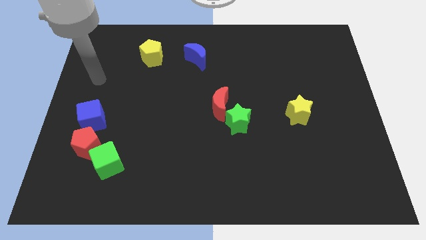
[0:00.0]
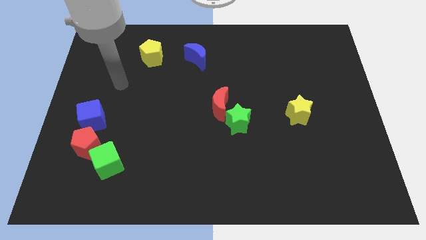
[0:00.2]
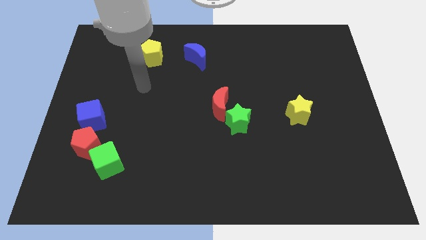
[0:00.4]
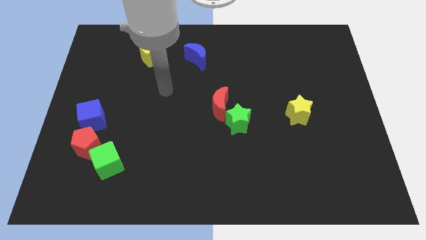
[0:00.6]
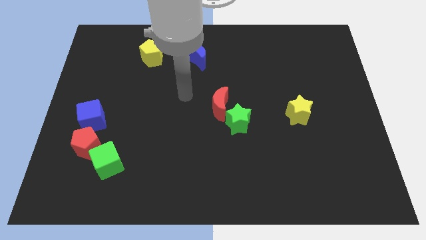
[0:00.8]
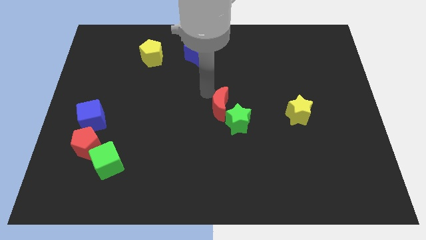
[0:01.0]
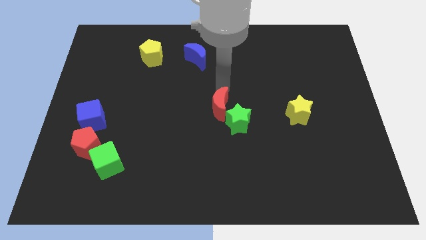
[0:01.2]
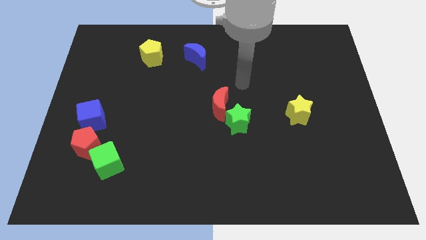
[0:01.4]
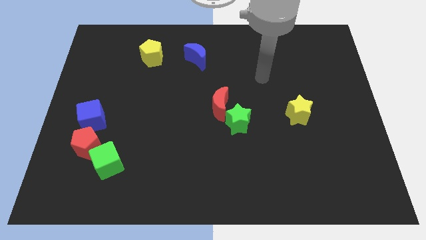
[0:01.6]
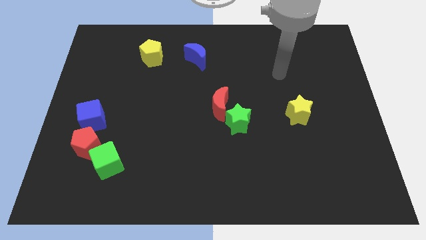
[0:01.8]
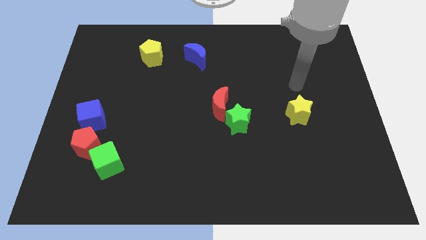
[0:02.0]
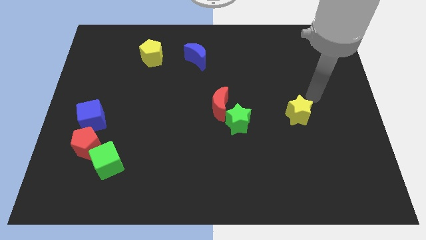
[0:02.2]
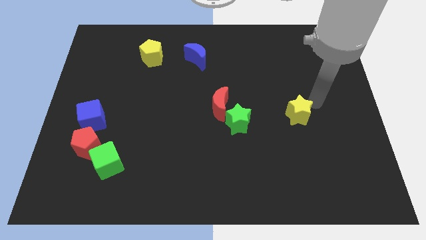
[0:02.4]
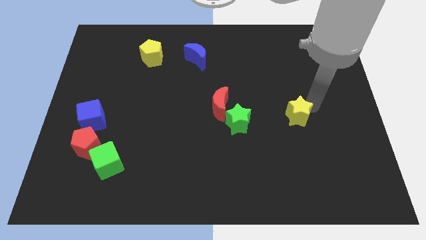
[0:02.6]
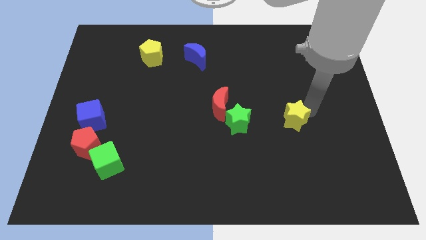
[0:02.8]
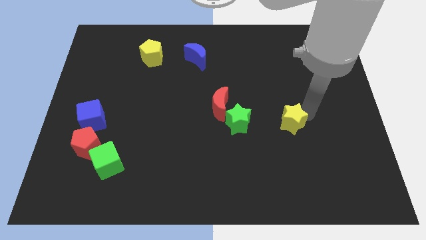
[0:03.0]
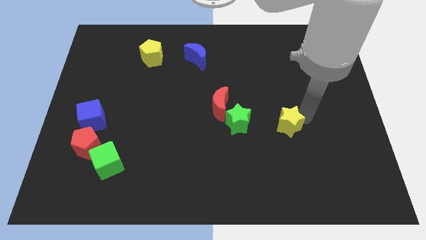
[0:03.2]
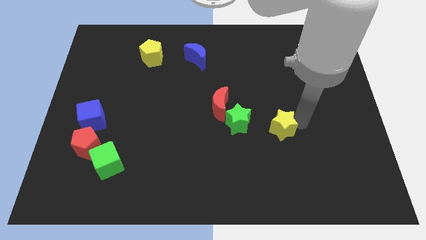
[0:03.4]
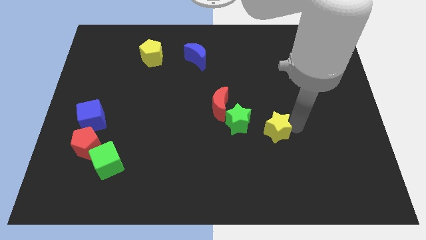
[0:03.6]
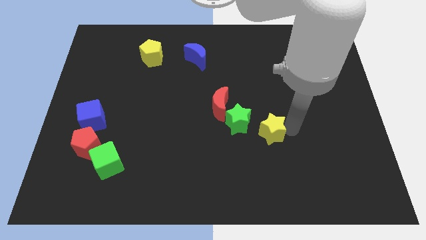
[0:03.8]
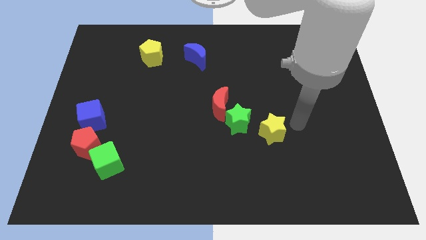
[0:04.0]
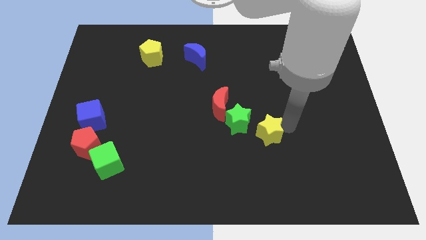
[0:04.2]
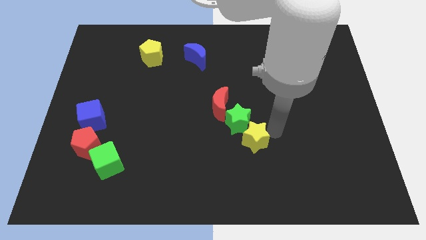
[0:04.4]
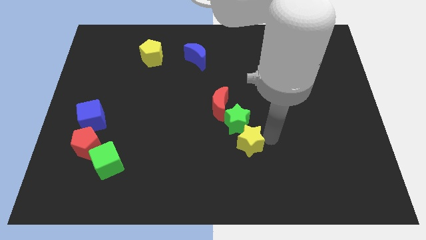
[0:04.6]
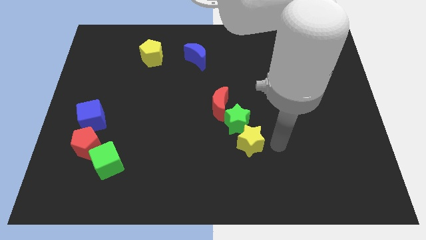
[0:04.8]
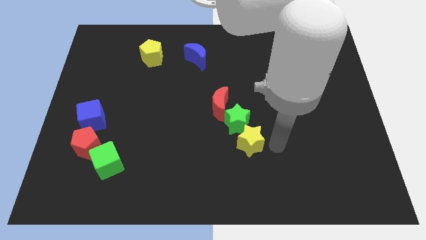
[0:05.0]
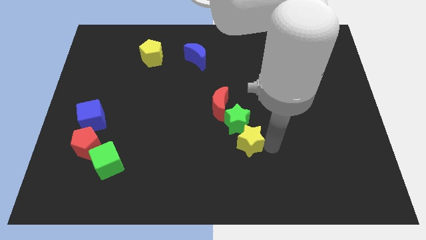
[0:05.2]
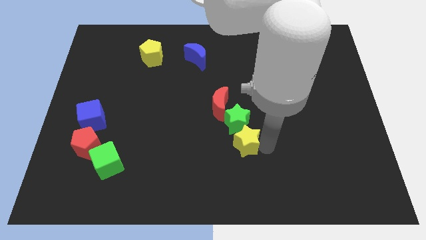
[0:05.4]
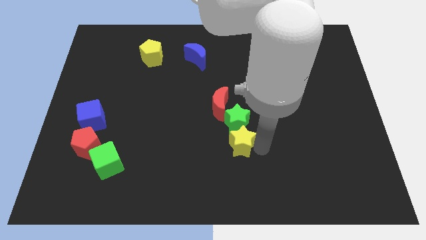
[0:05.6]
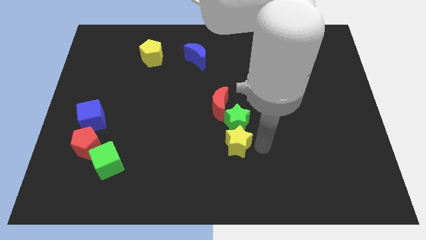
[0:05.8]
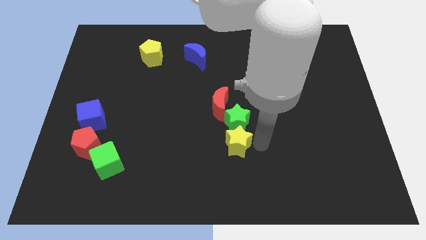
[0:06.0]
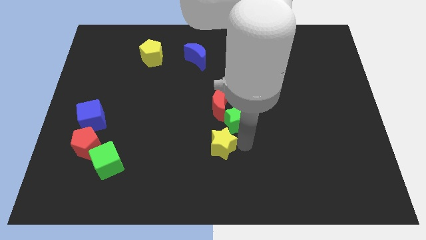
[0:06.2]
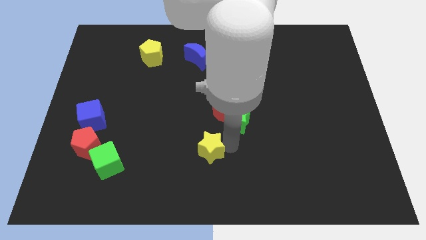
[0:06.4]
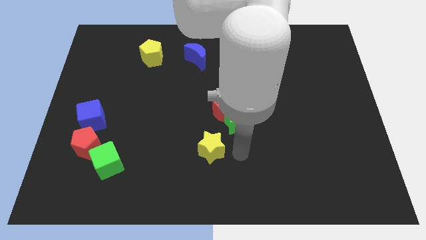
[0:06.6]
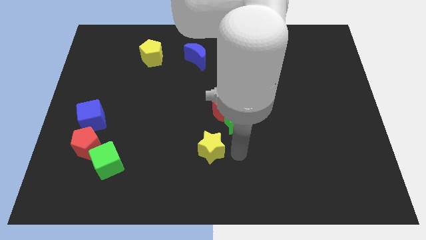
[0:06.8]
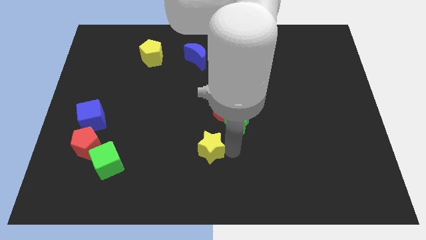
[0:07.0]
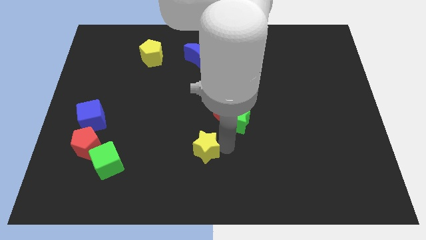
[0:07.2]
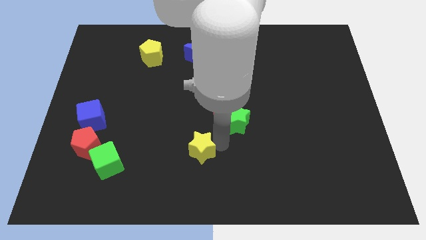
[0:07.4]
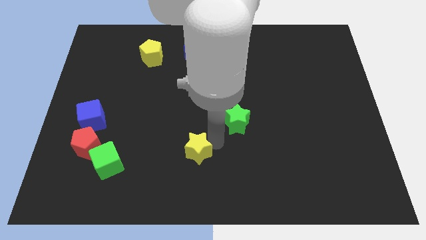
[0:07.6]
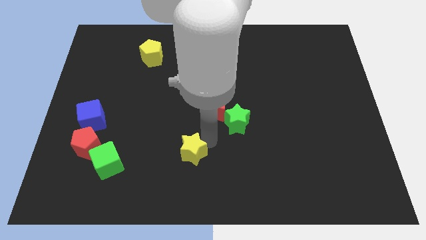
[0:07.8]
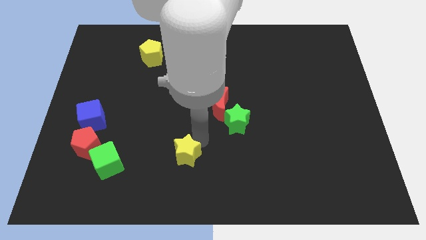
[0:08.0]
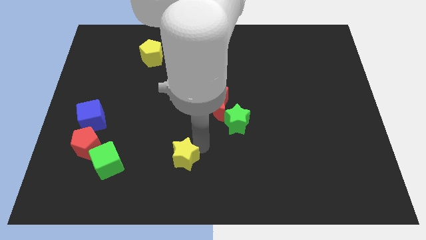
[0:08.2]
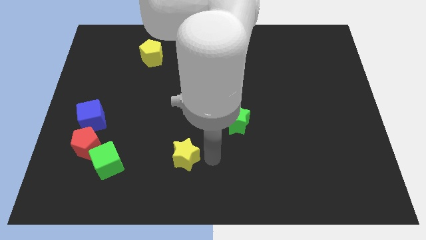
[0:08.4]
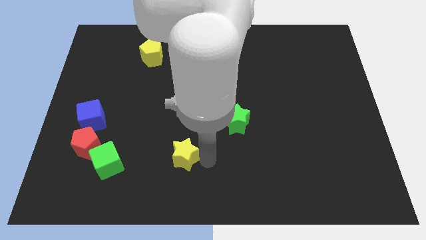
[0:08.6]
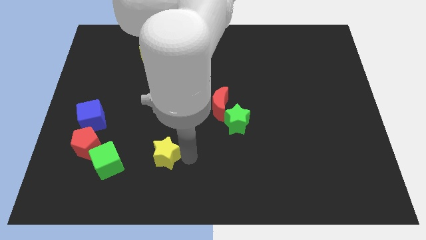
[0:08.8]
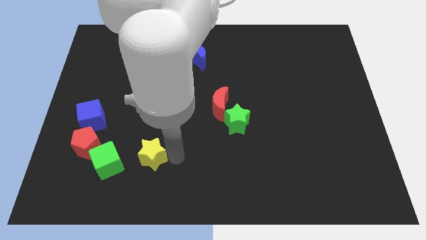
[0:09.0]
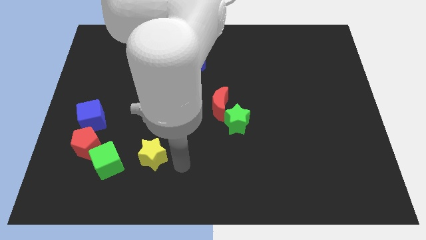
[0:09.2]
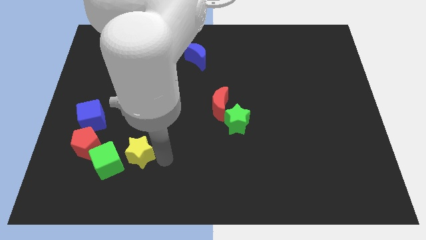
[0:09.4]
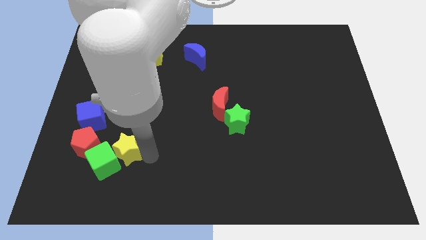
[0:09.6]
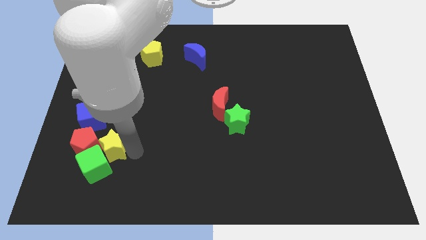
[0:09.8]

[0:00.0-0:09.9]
slide the yellow star to the red pentagon

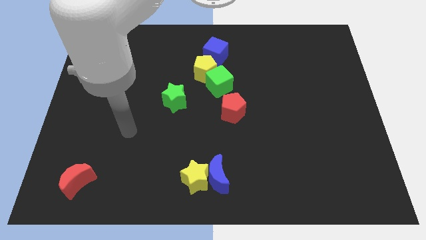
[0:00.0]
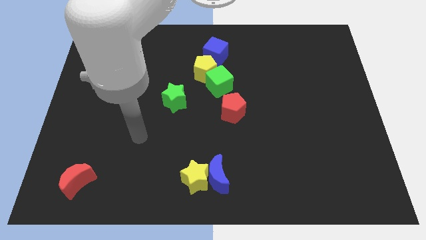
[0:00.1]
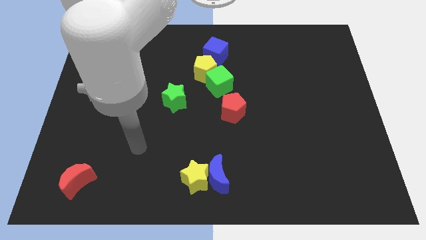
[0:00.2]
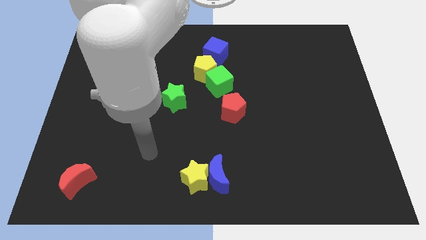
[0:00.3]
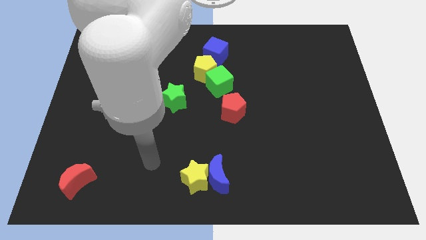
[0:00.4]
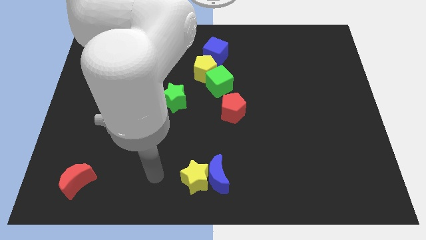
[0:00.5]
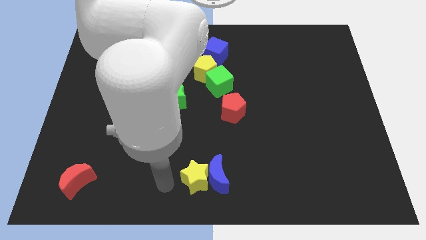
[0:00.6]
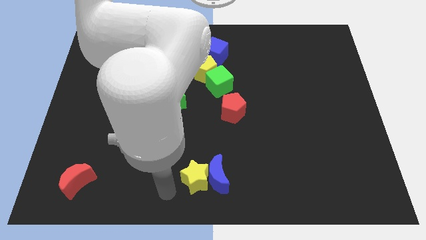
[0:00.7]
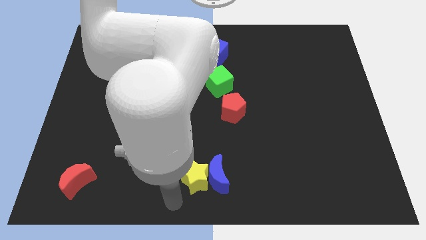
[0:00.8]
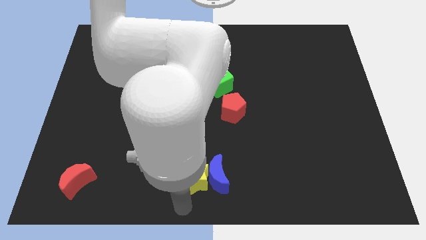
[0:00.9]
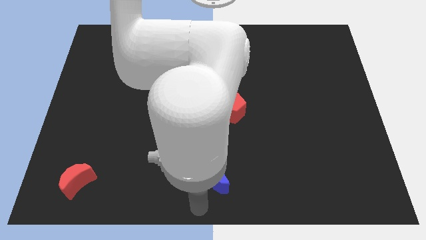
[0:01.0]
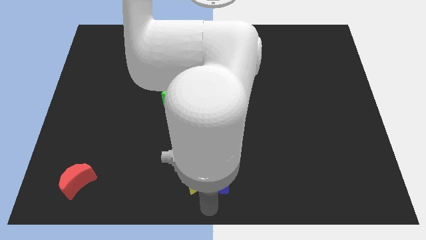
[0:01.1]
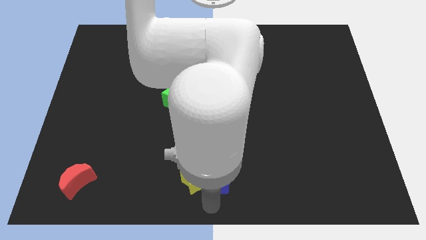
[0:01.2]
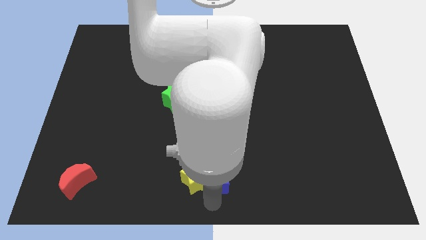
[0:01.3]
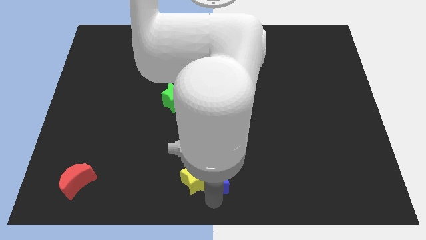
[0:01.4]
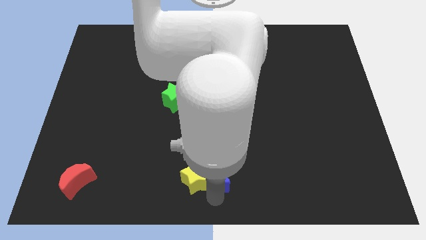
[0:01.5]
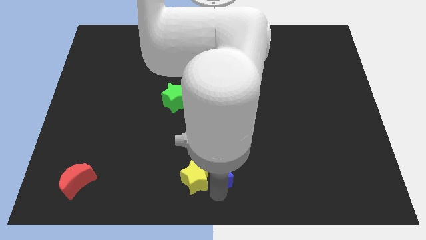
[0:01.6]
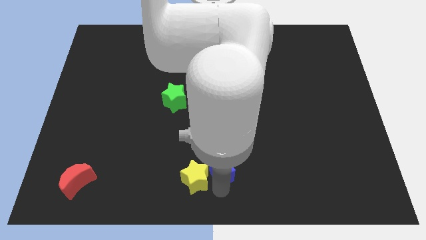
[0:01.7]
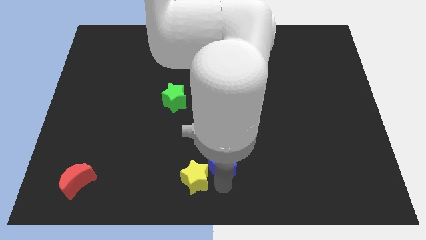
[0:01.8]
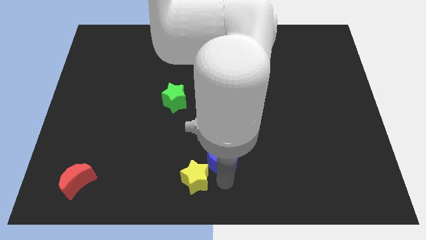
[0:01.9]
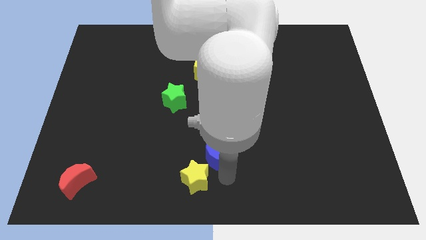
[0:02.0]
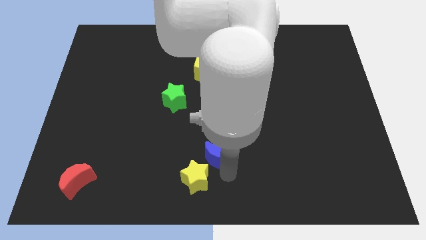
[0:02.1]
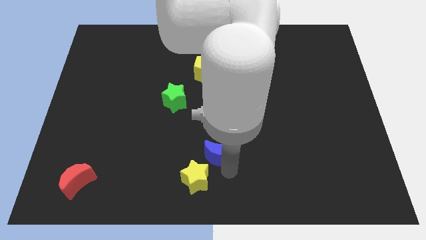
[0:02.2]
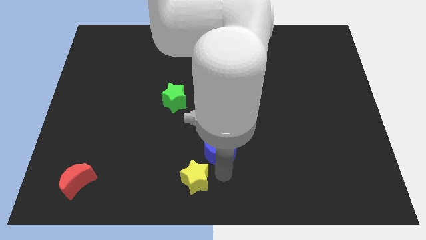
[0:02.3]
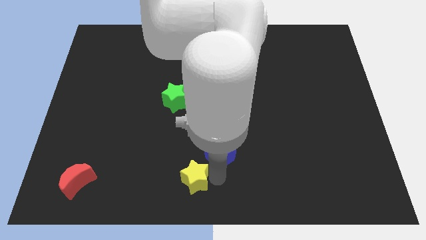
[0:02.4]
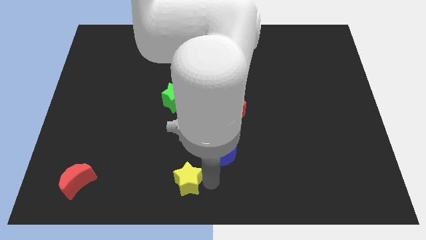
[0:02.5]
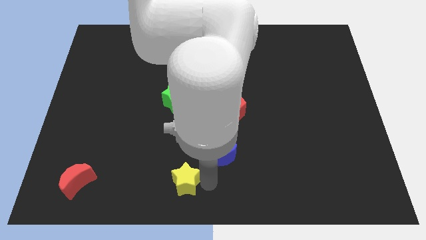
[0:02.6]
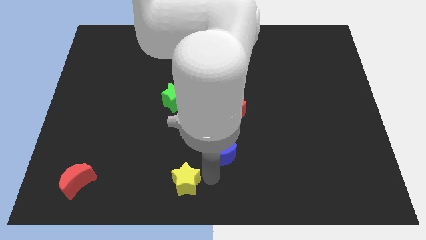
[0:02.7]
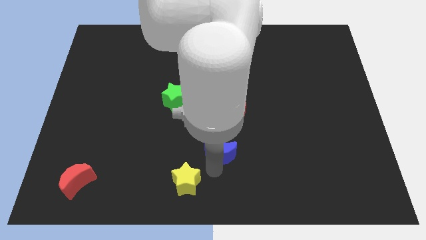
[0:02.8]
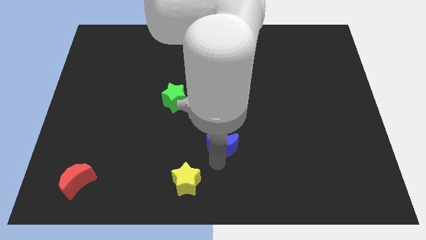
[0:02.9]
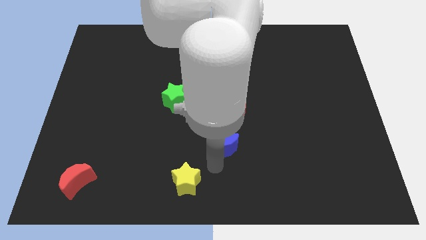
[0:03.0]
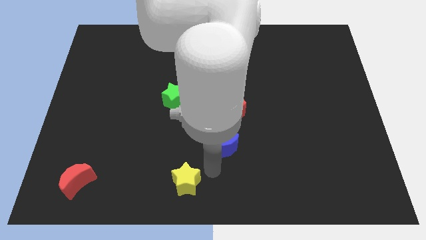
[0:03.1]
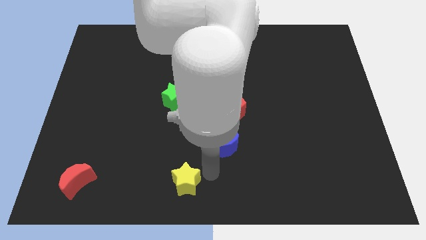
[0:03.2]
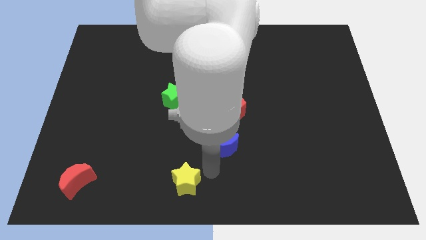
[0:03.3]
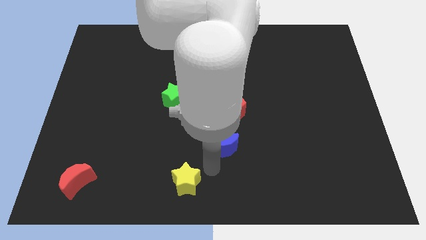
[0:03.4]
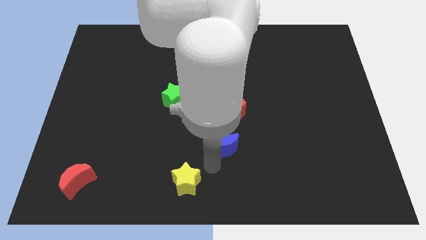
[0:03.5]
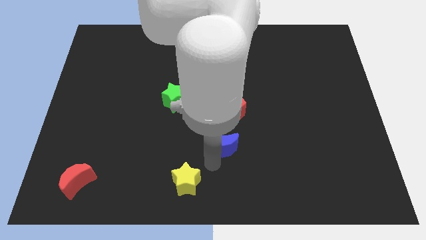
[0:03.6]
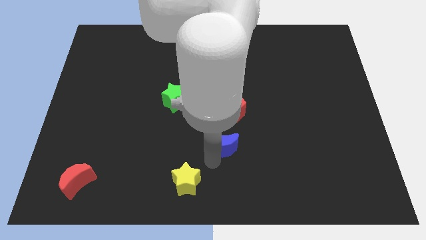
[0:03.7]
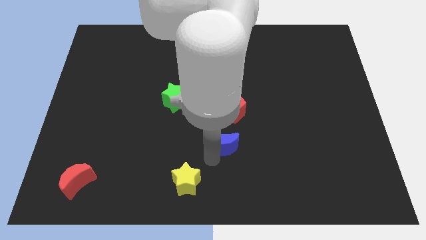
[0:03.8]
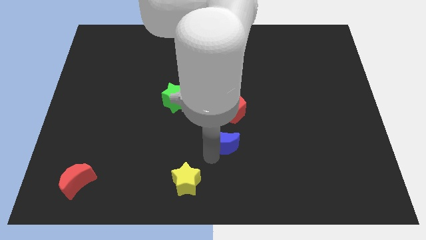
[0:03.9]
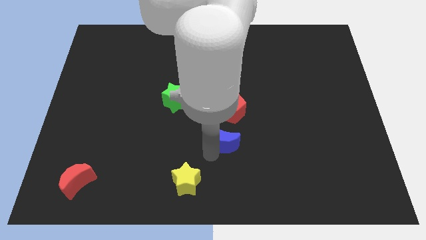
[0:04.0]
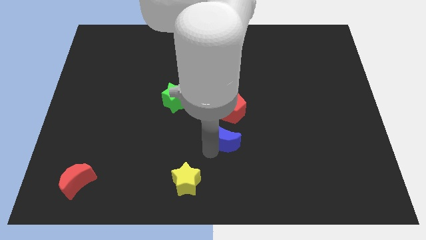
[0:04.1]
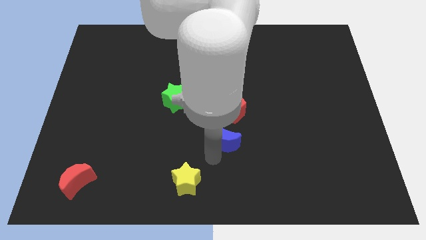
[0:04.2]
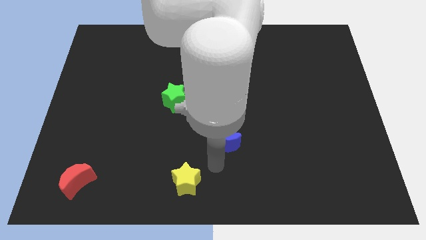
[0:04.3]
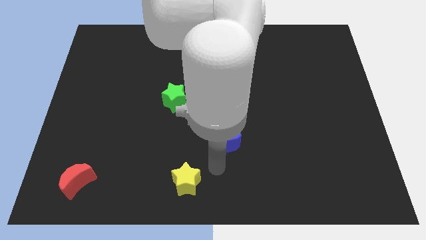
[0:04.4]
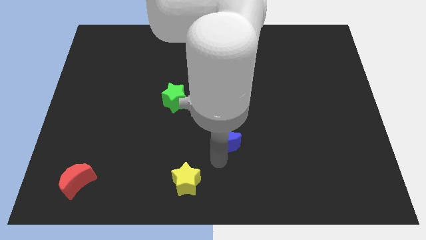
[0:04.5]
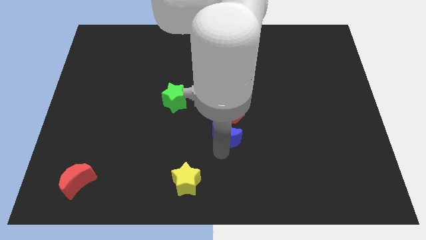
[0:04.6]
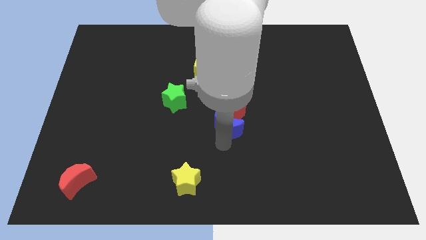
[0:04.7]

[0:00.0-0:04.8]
slide the blue moon towards the red pentagon
